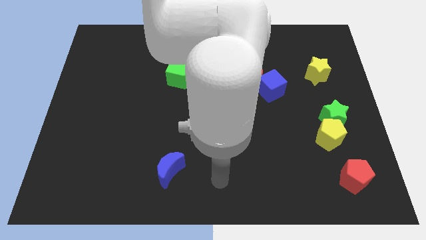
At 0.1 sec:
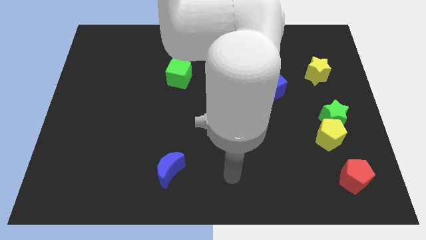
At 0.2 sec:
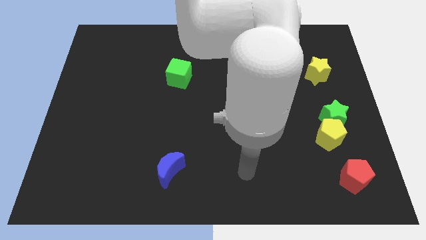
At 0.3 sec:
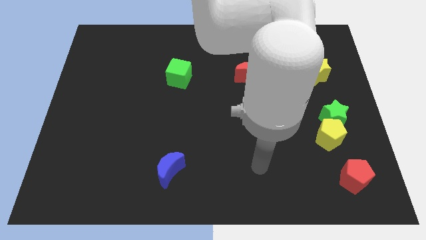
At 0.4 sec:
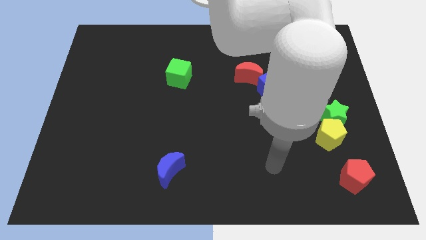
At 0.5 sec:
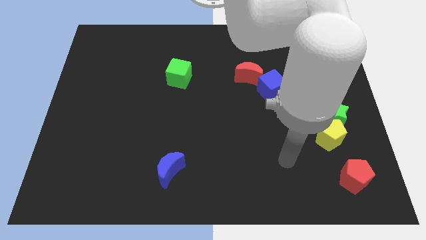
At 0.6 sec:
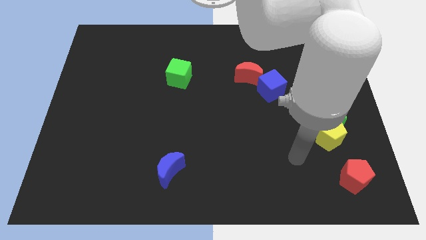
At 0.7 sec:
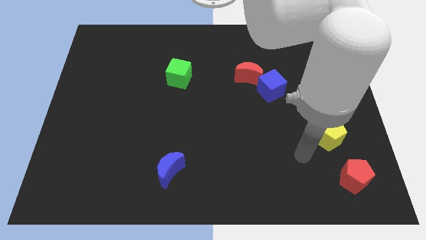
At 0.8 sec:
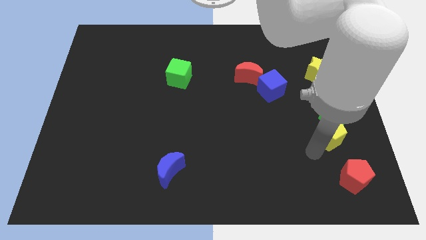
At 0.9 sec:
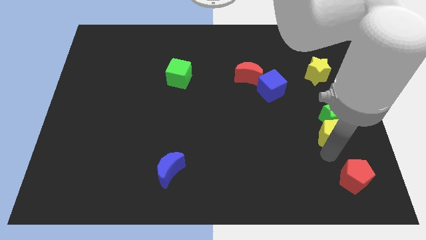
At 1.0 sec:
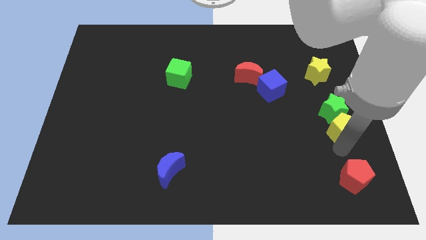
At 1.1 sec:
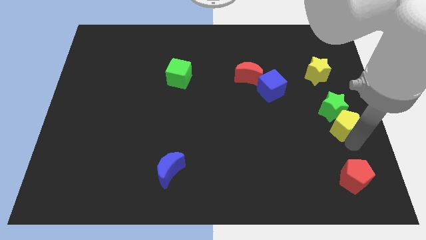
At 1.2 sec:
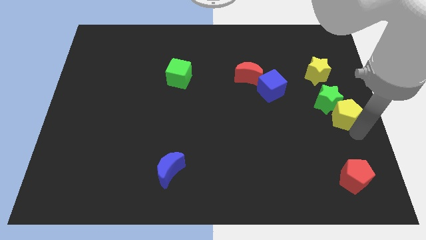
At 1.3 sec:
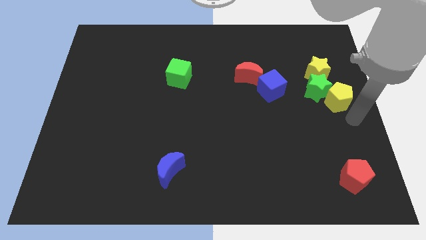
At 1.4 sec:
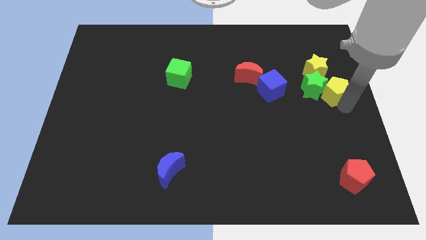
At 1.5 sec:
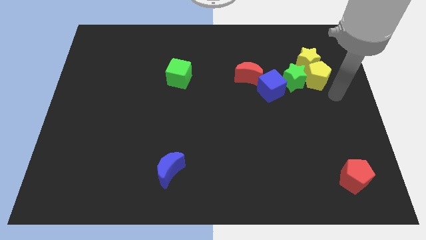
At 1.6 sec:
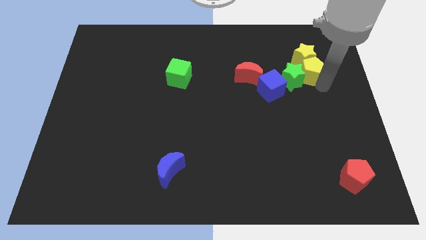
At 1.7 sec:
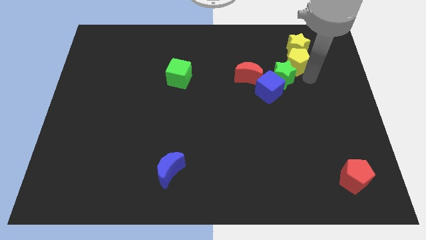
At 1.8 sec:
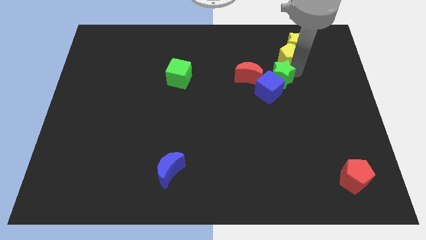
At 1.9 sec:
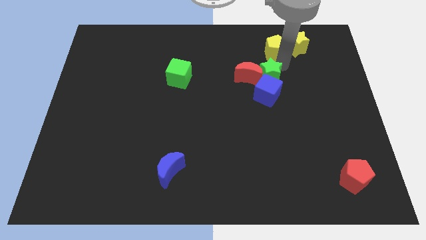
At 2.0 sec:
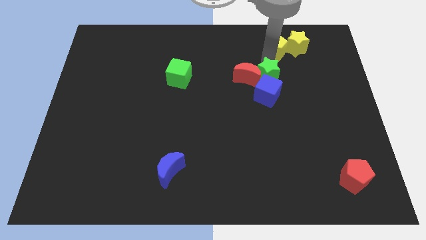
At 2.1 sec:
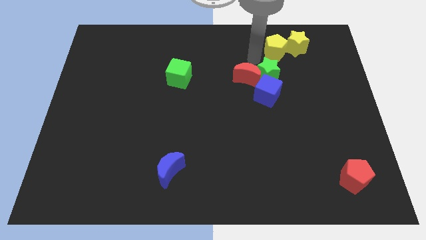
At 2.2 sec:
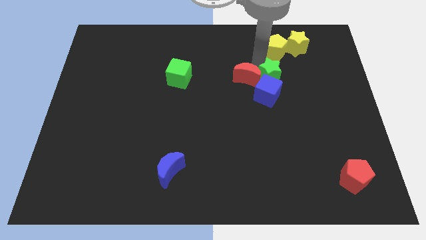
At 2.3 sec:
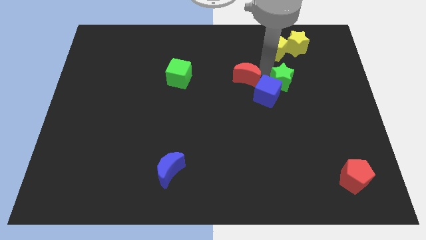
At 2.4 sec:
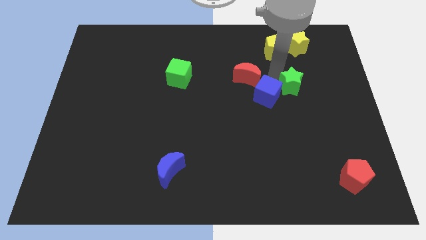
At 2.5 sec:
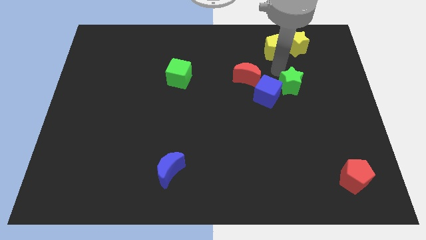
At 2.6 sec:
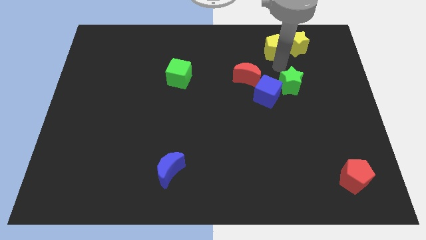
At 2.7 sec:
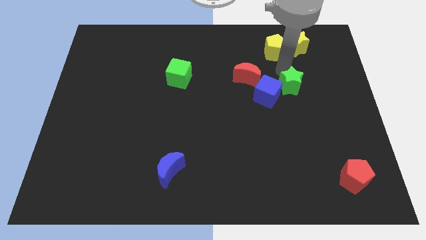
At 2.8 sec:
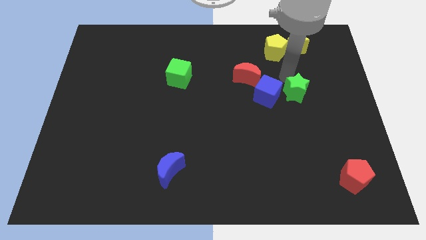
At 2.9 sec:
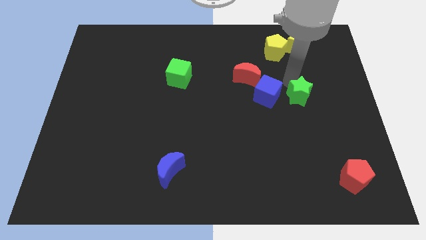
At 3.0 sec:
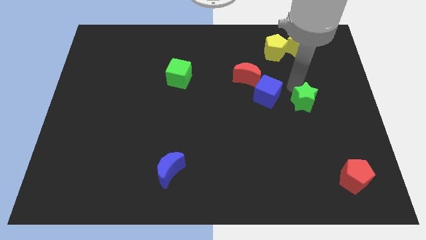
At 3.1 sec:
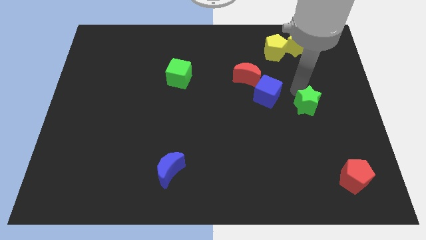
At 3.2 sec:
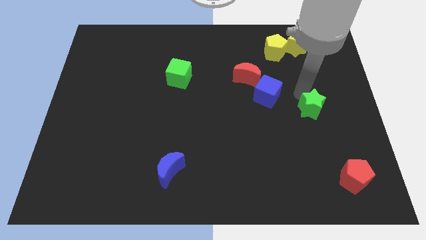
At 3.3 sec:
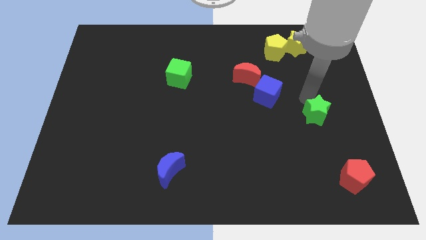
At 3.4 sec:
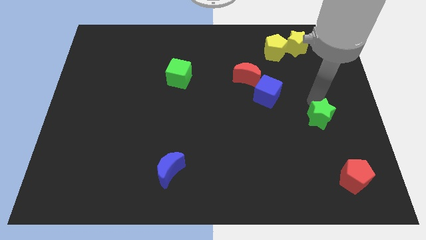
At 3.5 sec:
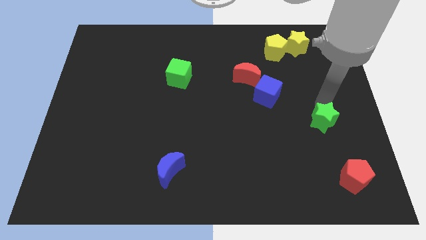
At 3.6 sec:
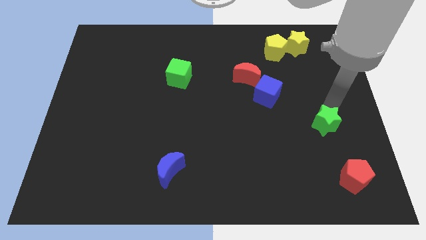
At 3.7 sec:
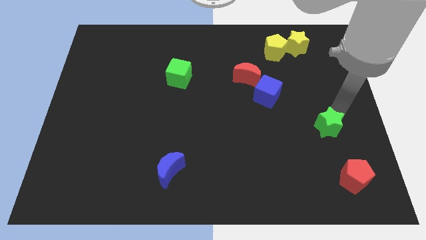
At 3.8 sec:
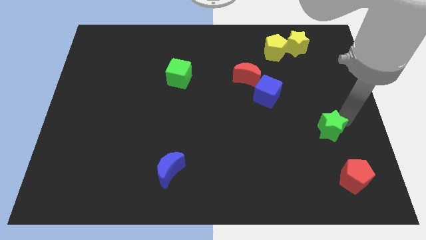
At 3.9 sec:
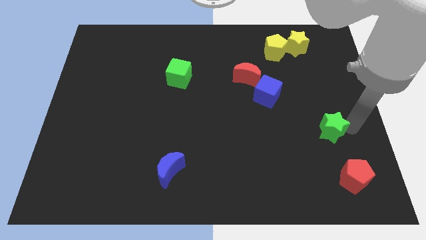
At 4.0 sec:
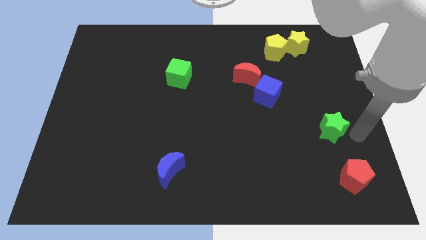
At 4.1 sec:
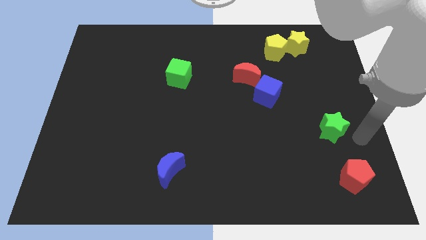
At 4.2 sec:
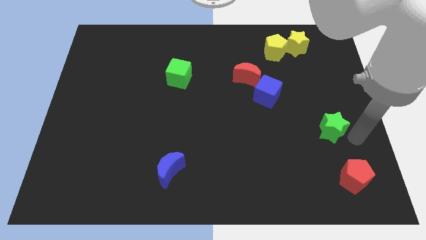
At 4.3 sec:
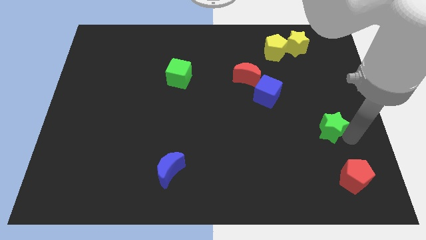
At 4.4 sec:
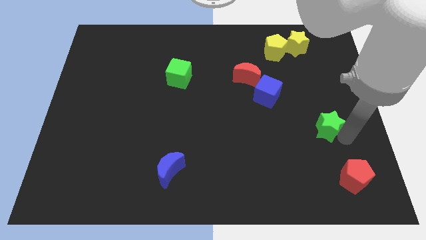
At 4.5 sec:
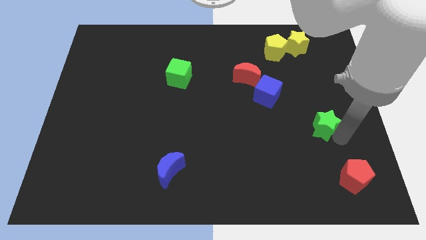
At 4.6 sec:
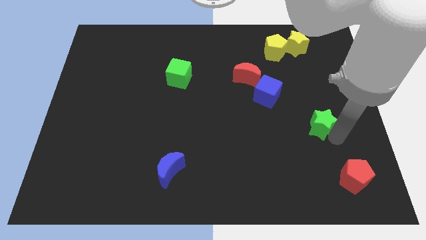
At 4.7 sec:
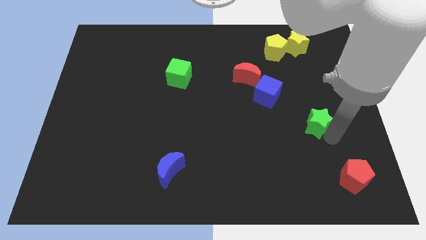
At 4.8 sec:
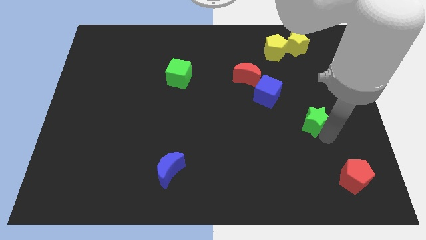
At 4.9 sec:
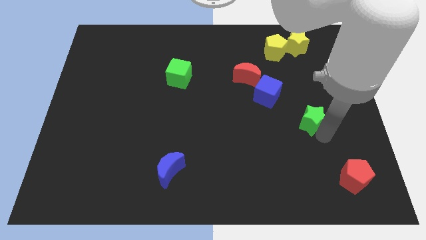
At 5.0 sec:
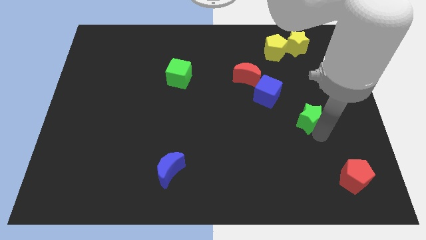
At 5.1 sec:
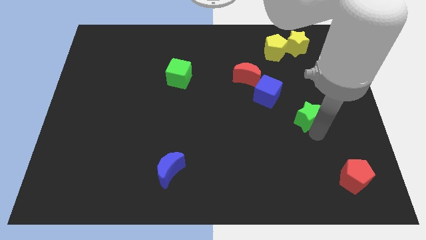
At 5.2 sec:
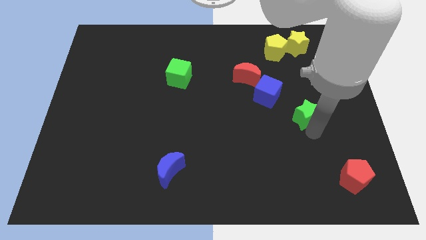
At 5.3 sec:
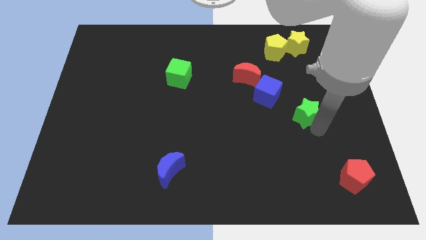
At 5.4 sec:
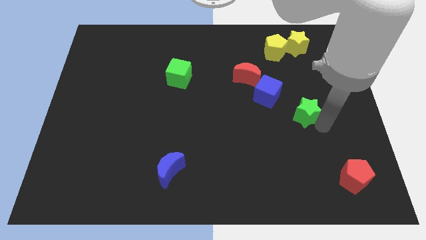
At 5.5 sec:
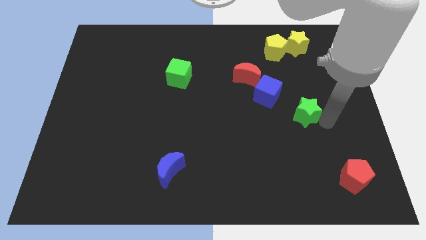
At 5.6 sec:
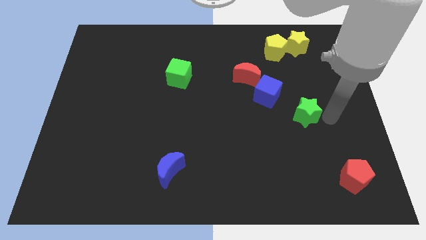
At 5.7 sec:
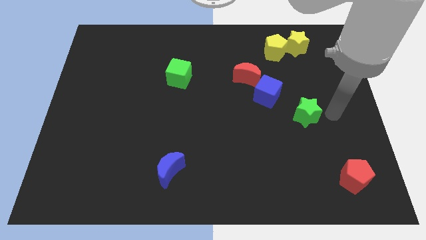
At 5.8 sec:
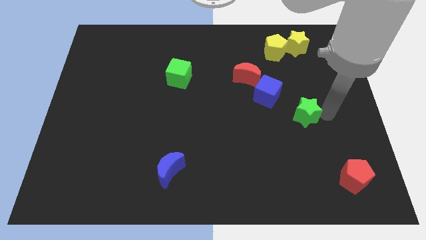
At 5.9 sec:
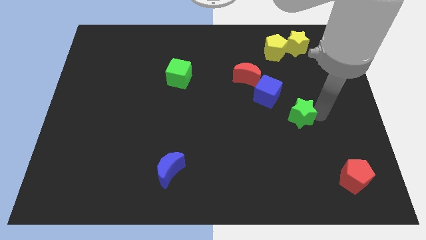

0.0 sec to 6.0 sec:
move the green star to the left a bit

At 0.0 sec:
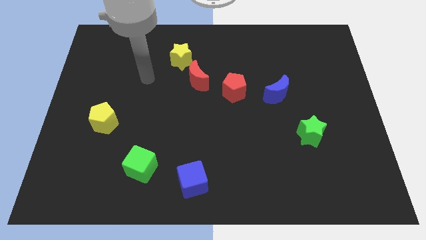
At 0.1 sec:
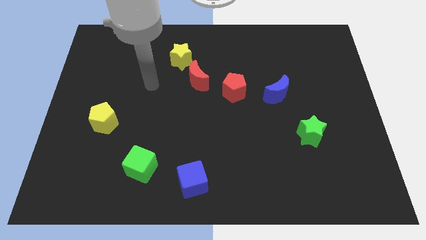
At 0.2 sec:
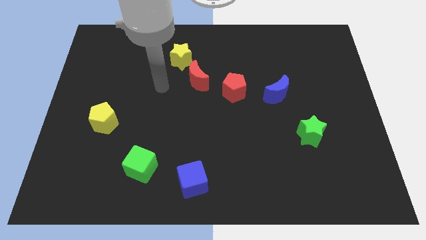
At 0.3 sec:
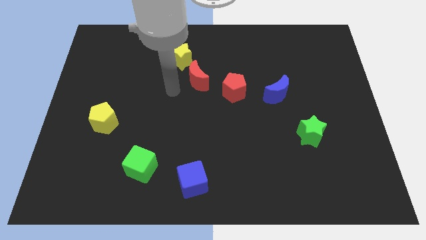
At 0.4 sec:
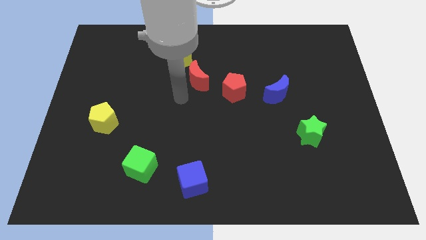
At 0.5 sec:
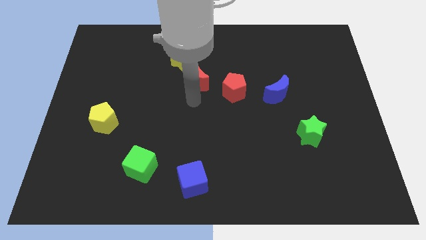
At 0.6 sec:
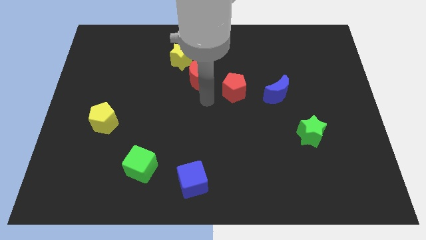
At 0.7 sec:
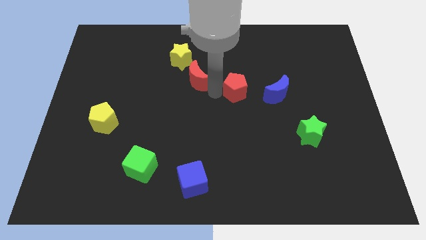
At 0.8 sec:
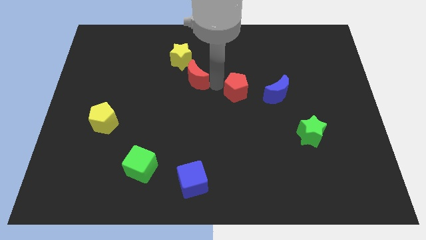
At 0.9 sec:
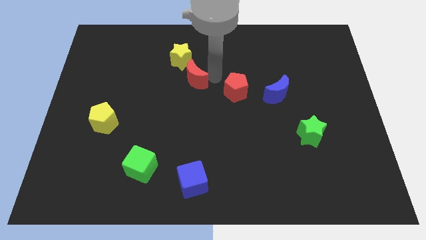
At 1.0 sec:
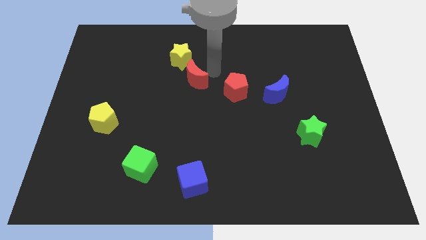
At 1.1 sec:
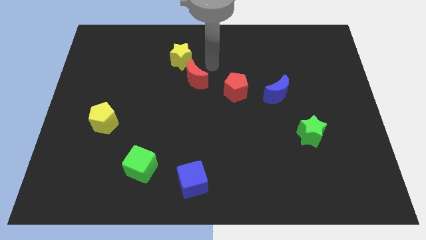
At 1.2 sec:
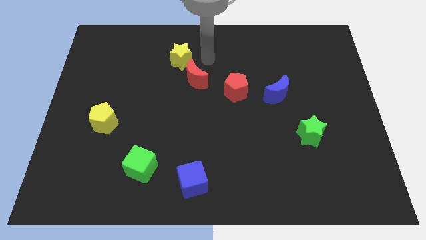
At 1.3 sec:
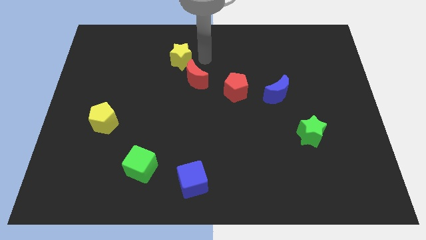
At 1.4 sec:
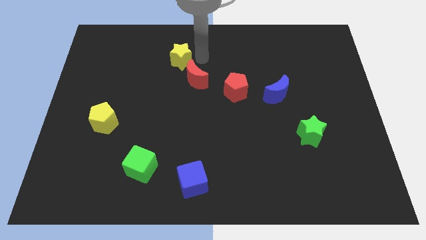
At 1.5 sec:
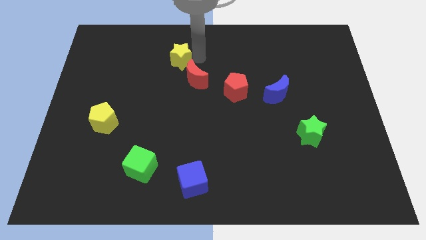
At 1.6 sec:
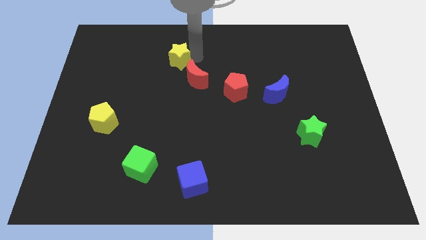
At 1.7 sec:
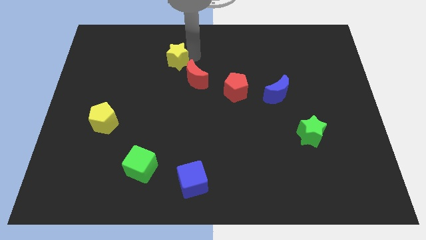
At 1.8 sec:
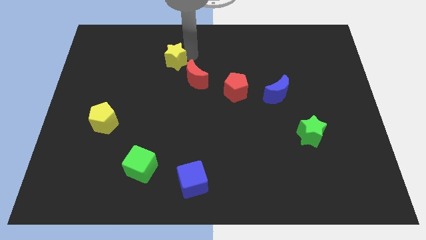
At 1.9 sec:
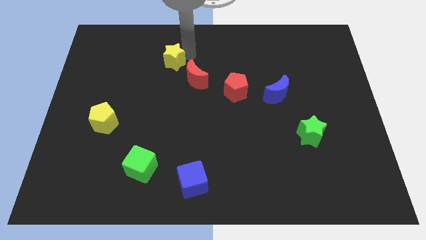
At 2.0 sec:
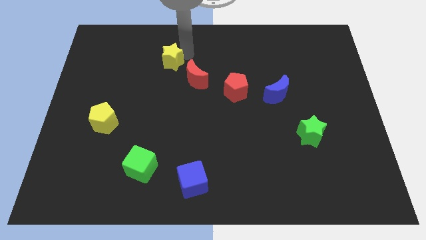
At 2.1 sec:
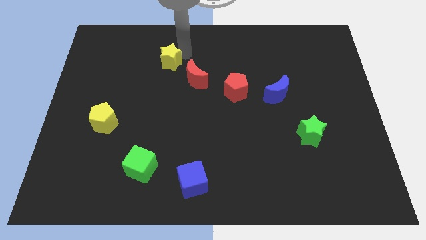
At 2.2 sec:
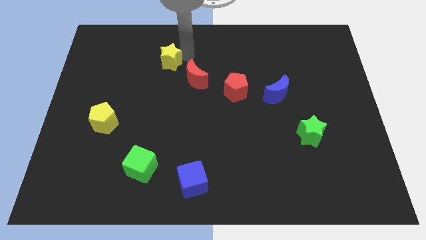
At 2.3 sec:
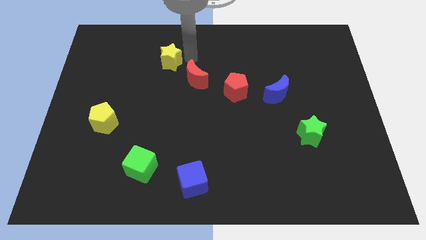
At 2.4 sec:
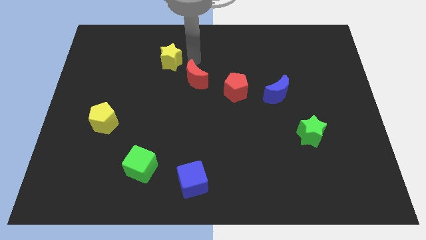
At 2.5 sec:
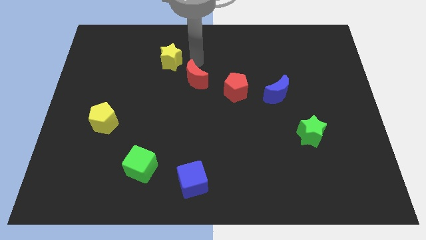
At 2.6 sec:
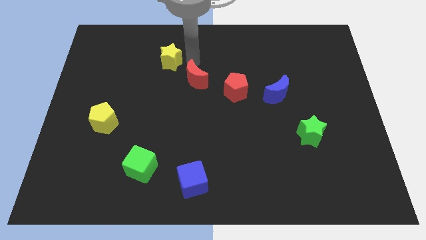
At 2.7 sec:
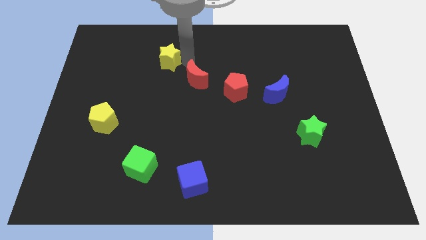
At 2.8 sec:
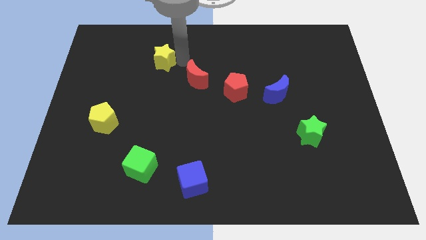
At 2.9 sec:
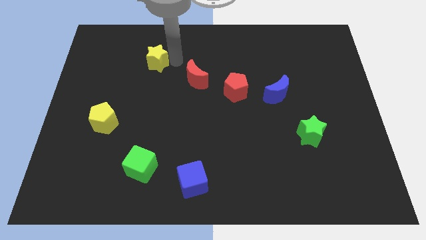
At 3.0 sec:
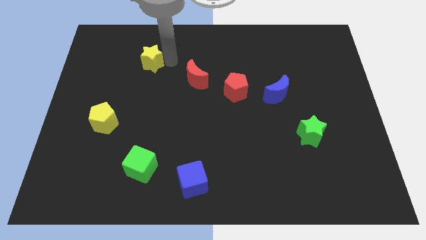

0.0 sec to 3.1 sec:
push the yellow star a little left
